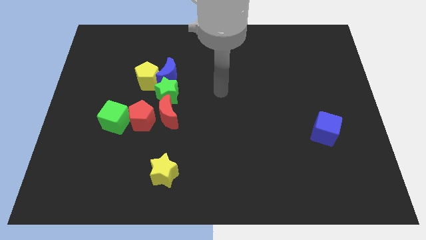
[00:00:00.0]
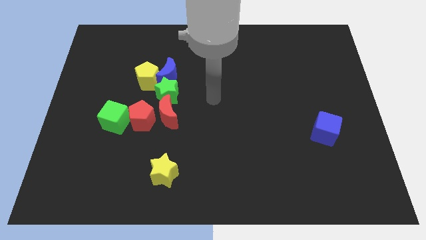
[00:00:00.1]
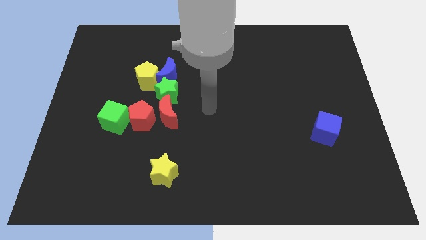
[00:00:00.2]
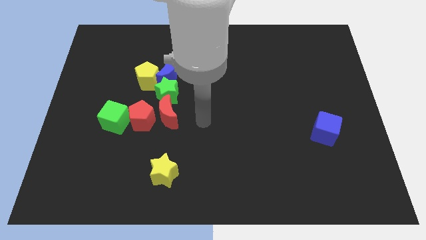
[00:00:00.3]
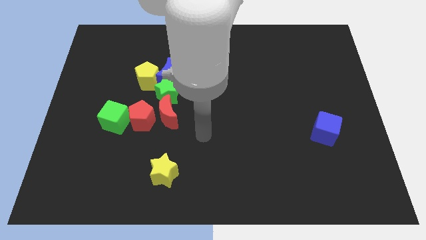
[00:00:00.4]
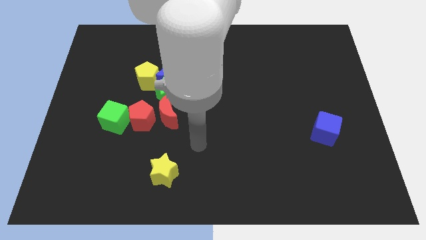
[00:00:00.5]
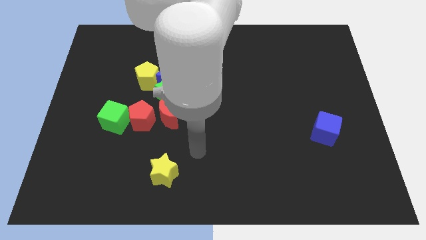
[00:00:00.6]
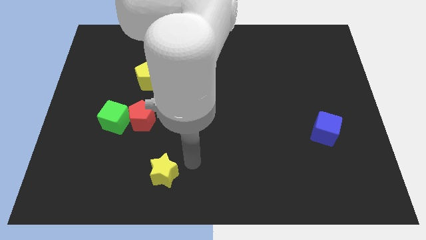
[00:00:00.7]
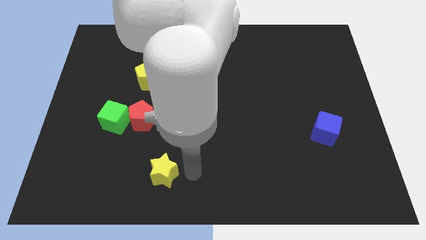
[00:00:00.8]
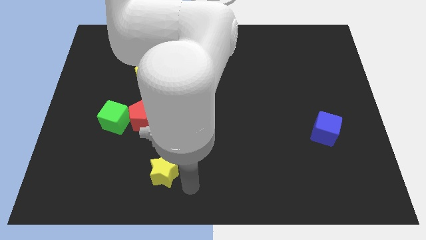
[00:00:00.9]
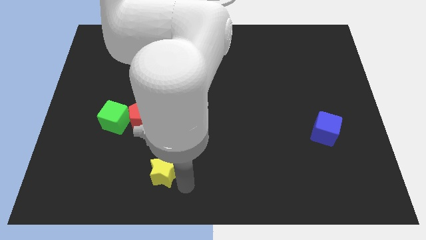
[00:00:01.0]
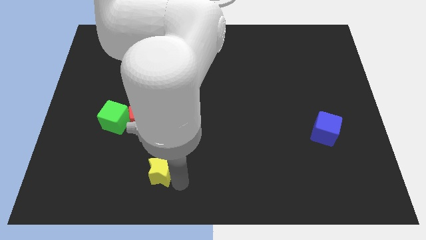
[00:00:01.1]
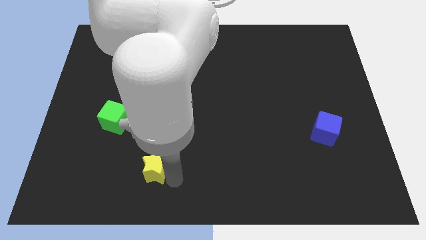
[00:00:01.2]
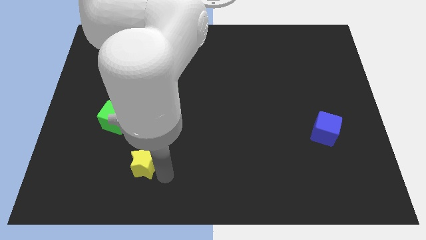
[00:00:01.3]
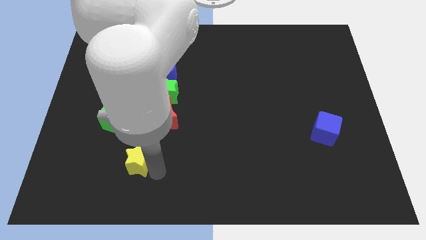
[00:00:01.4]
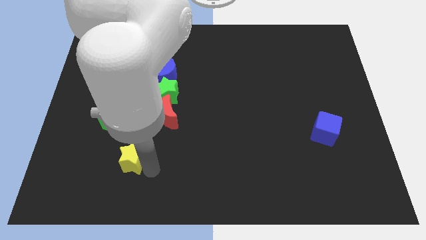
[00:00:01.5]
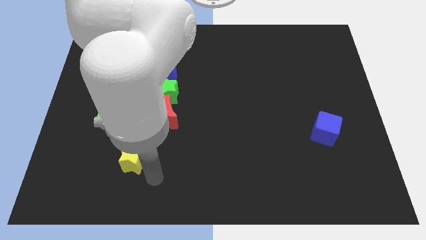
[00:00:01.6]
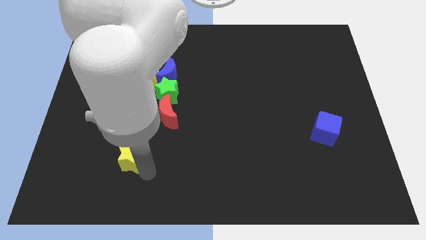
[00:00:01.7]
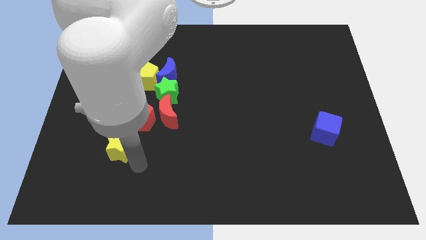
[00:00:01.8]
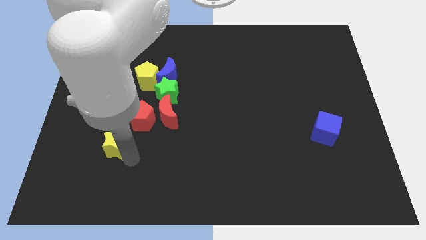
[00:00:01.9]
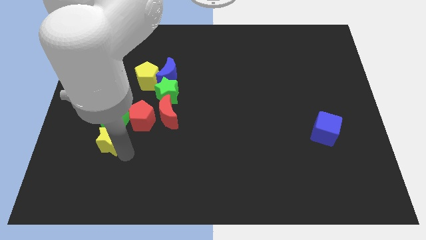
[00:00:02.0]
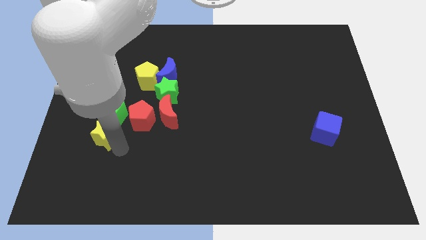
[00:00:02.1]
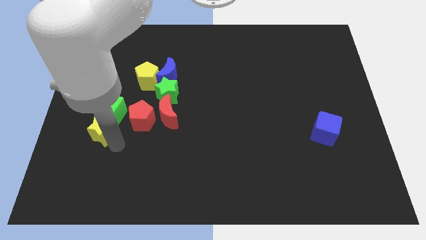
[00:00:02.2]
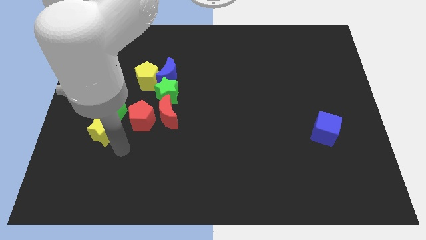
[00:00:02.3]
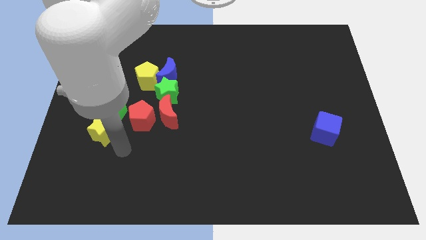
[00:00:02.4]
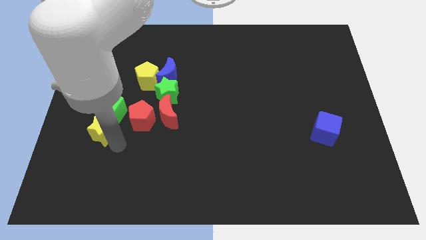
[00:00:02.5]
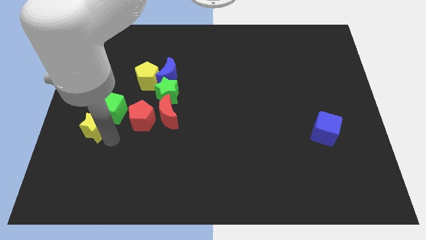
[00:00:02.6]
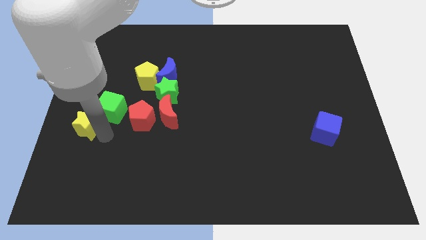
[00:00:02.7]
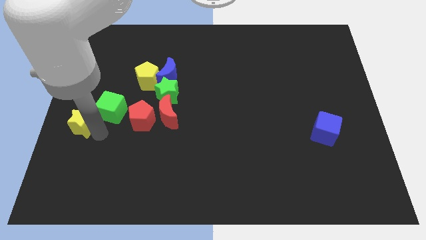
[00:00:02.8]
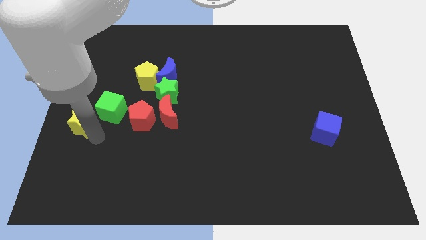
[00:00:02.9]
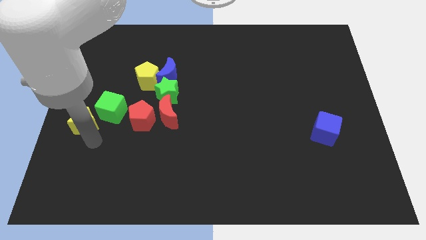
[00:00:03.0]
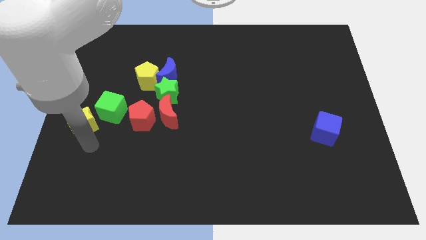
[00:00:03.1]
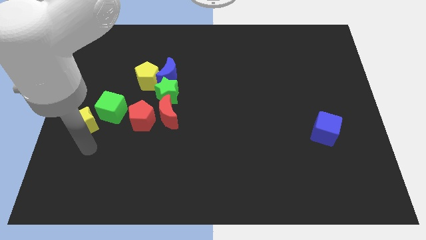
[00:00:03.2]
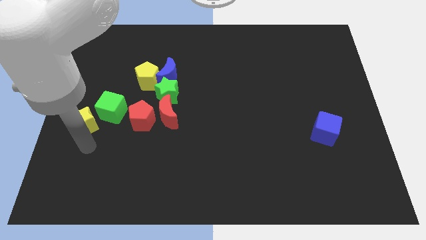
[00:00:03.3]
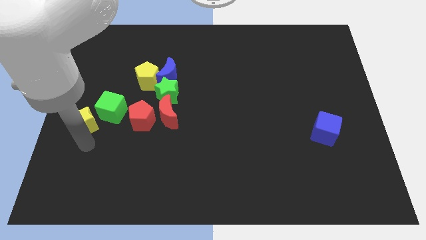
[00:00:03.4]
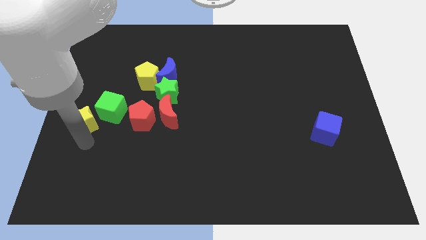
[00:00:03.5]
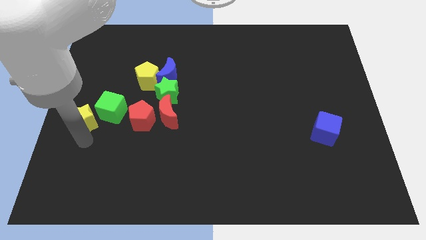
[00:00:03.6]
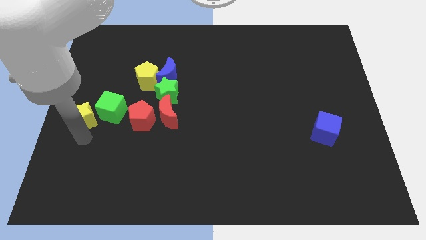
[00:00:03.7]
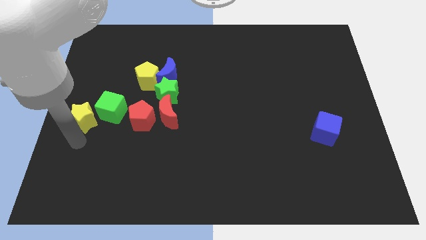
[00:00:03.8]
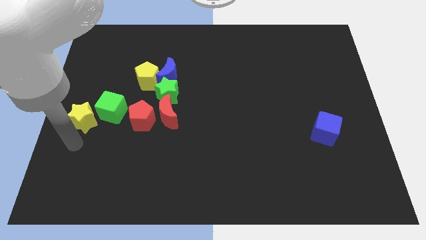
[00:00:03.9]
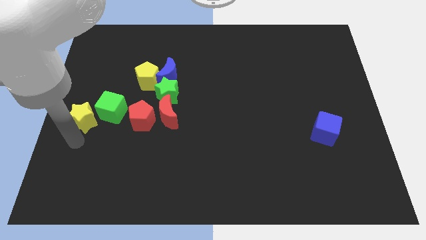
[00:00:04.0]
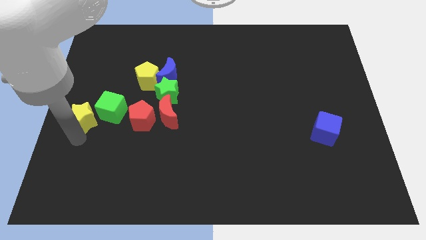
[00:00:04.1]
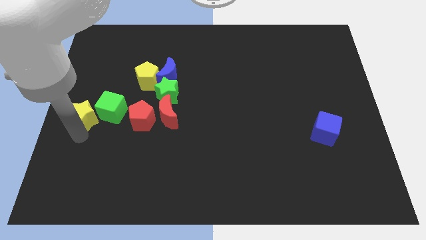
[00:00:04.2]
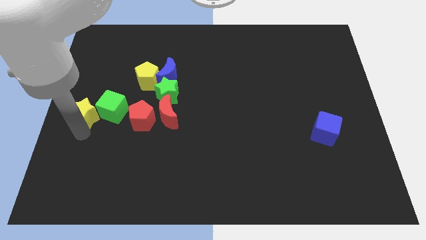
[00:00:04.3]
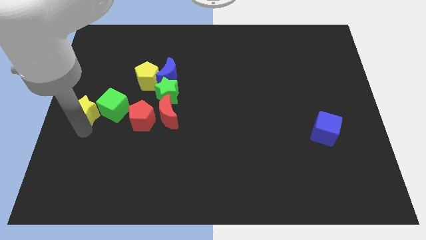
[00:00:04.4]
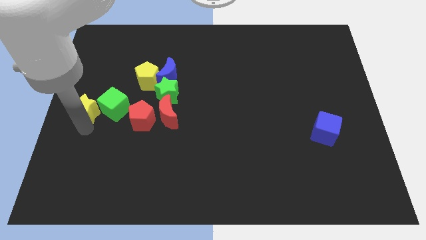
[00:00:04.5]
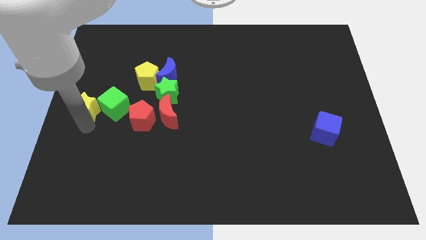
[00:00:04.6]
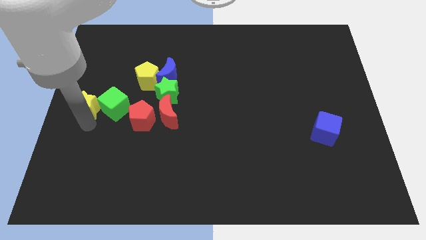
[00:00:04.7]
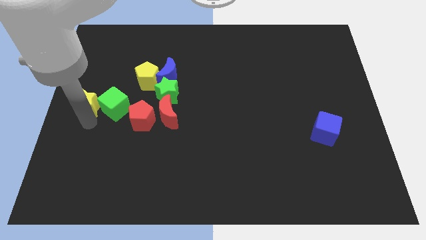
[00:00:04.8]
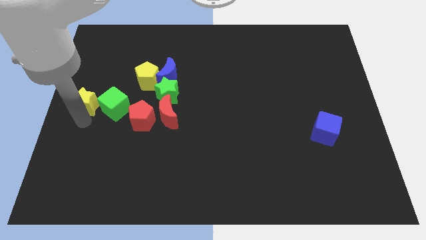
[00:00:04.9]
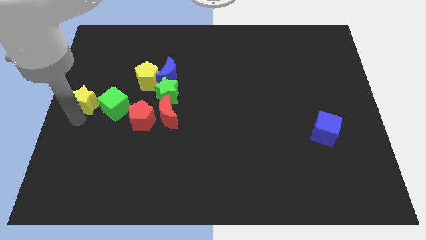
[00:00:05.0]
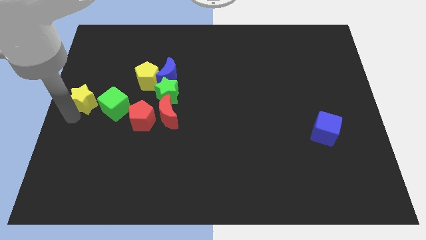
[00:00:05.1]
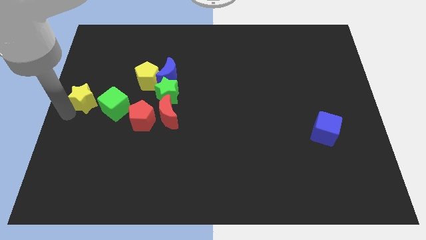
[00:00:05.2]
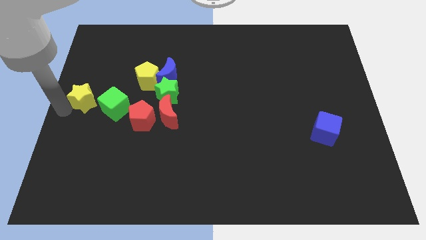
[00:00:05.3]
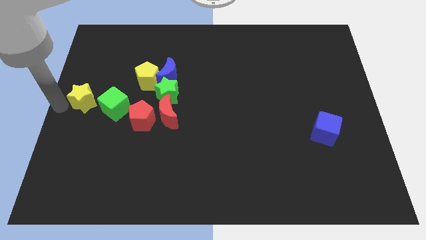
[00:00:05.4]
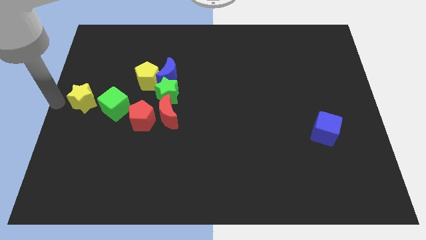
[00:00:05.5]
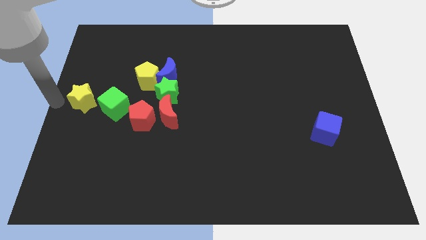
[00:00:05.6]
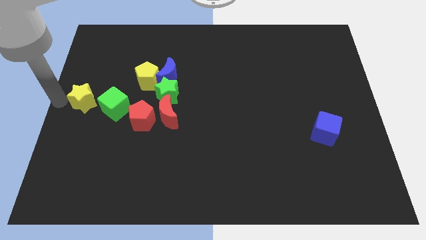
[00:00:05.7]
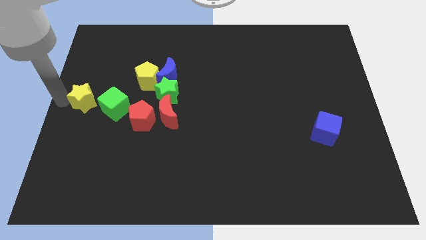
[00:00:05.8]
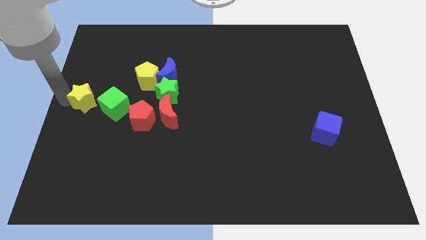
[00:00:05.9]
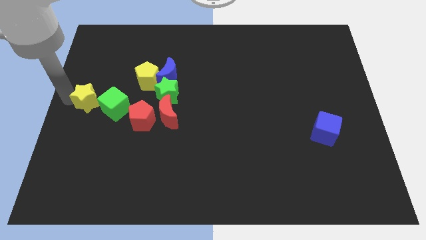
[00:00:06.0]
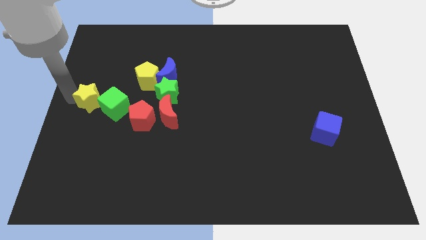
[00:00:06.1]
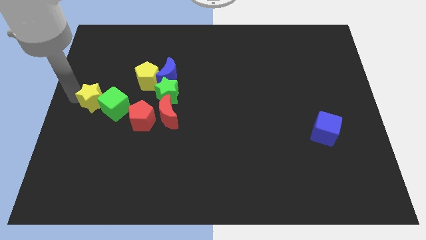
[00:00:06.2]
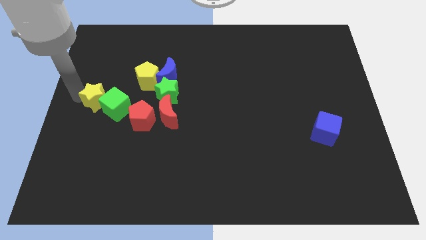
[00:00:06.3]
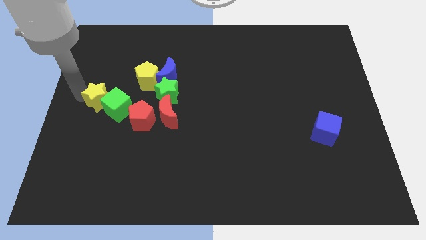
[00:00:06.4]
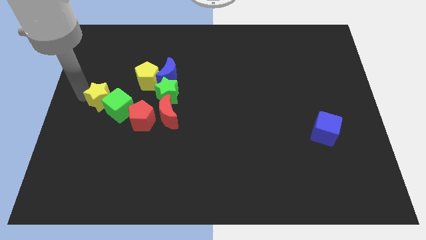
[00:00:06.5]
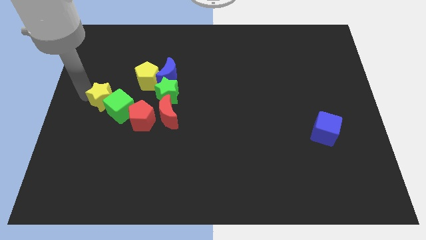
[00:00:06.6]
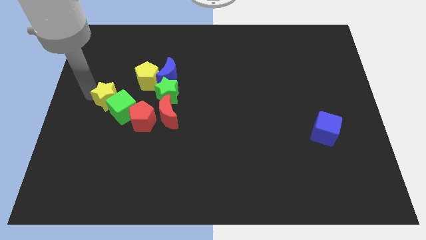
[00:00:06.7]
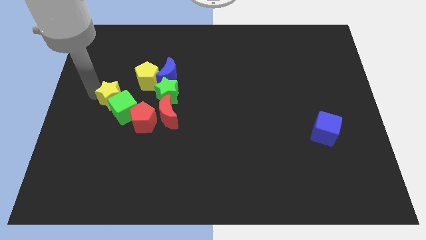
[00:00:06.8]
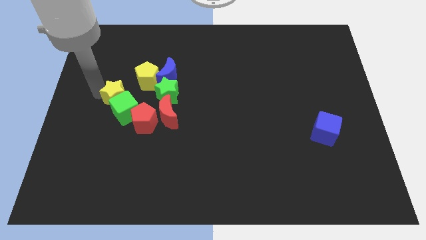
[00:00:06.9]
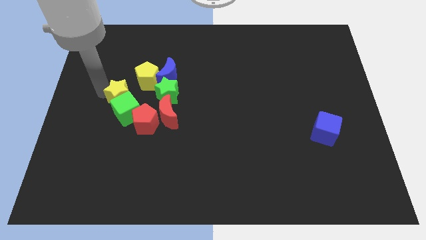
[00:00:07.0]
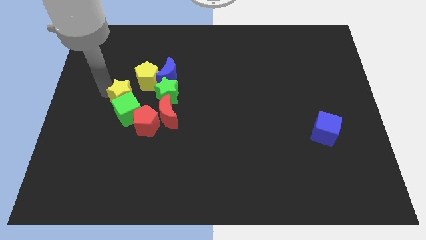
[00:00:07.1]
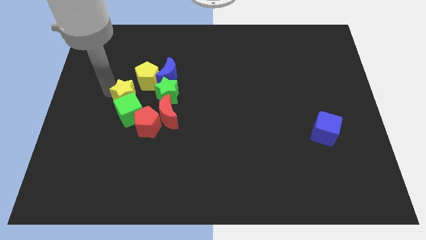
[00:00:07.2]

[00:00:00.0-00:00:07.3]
slide the yellow star to the top left side of the red moon
